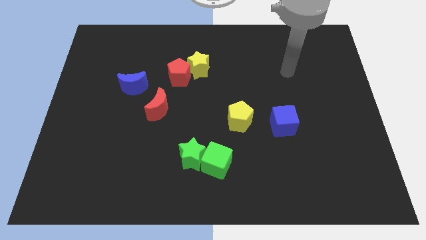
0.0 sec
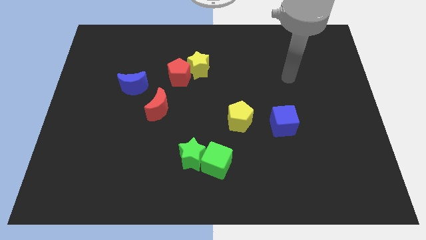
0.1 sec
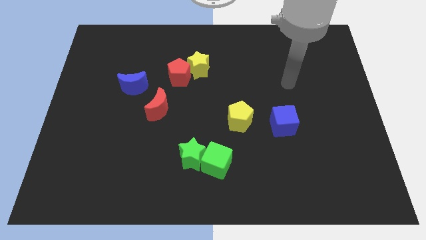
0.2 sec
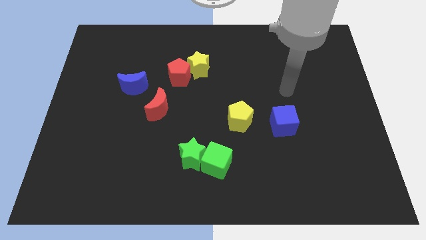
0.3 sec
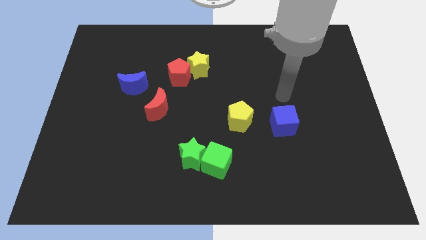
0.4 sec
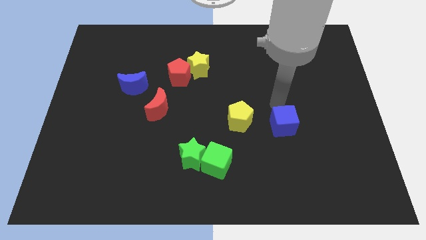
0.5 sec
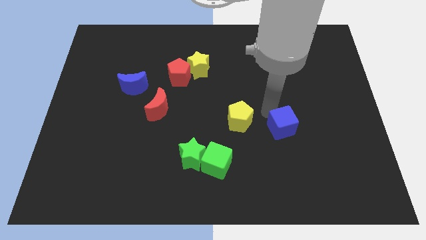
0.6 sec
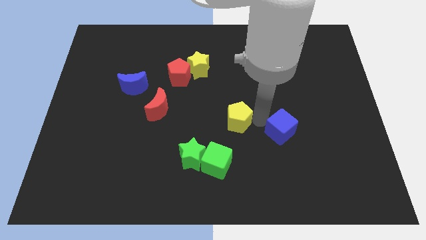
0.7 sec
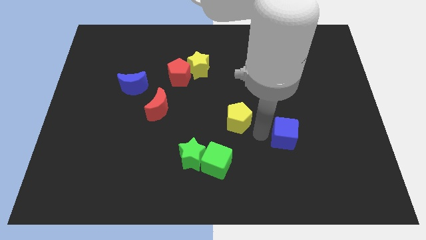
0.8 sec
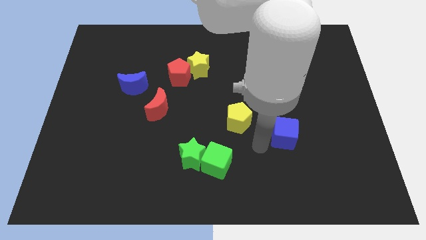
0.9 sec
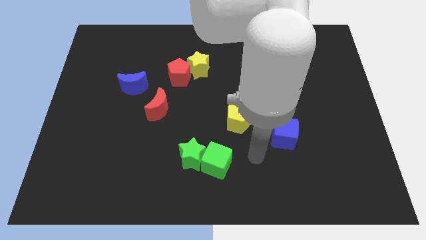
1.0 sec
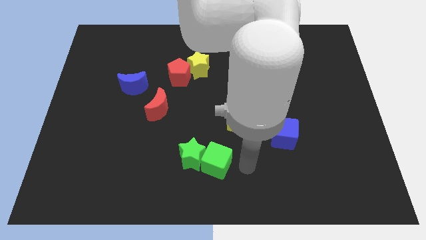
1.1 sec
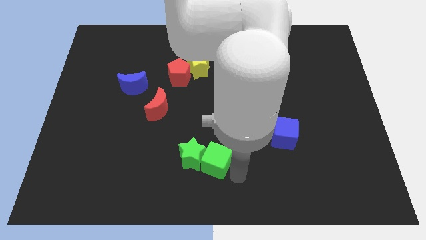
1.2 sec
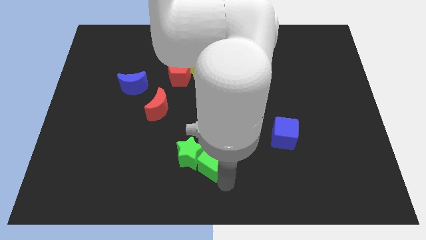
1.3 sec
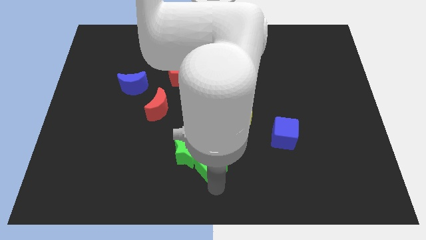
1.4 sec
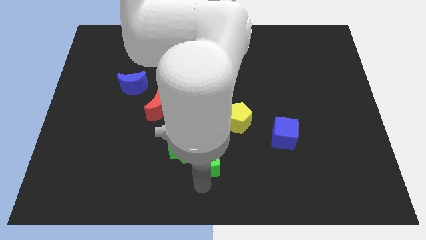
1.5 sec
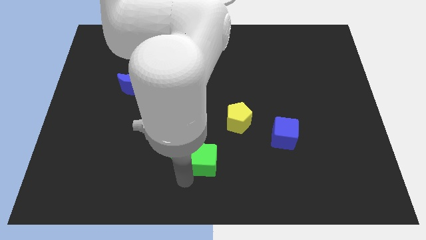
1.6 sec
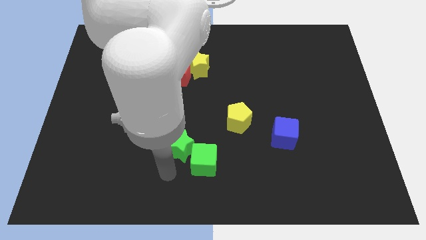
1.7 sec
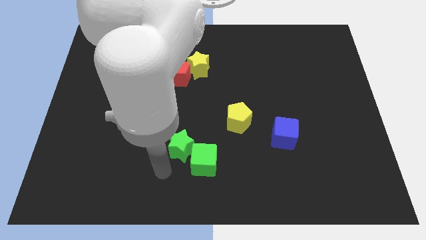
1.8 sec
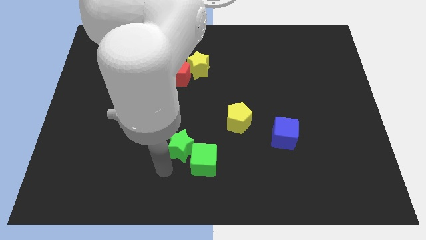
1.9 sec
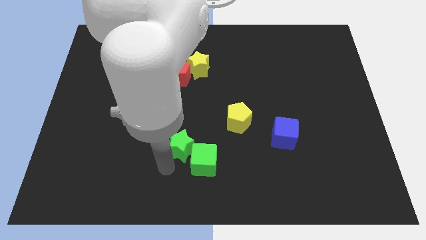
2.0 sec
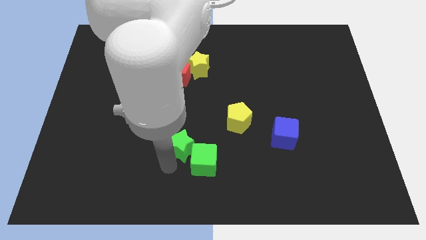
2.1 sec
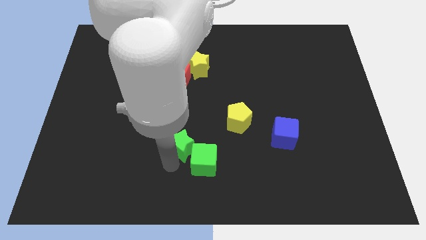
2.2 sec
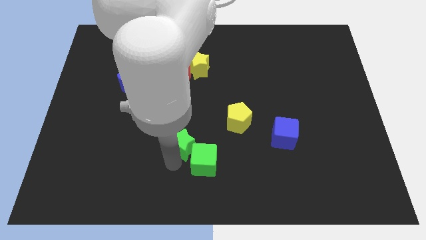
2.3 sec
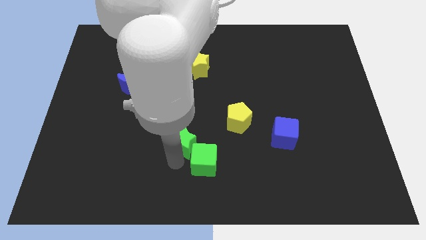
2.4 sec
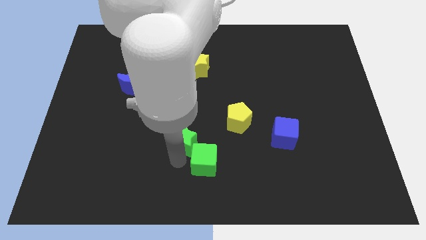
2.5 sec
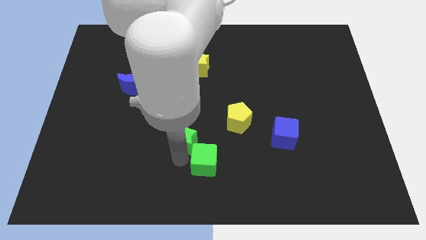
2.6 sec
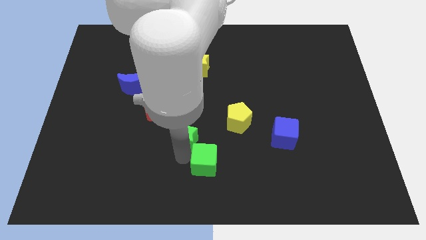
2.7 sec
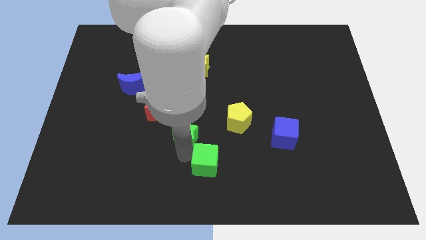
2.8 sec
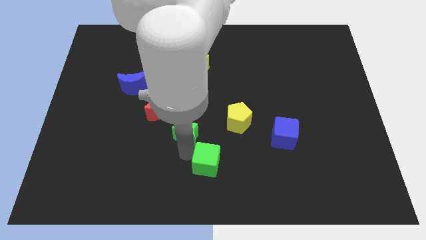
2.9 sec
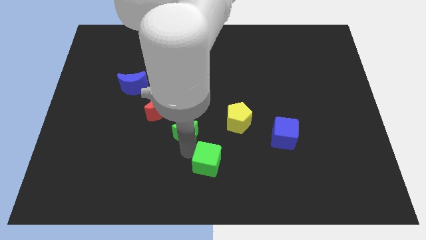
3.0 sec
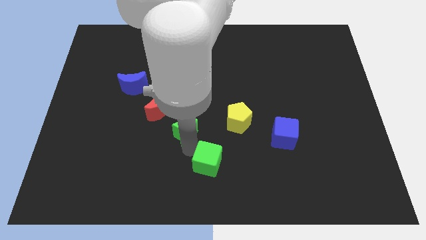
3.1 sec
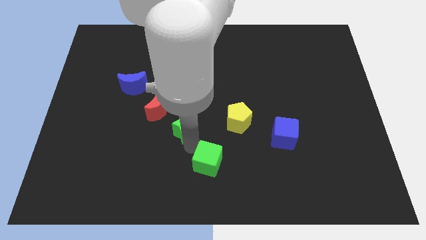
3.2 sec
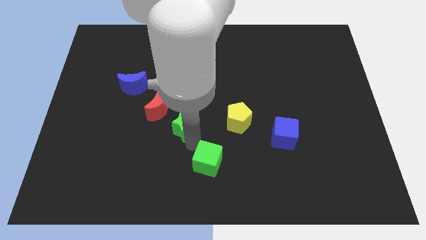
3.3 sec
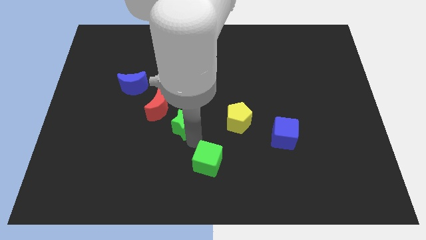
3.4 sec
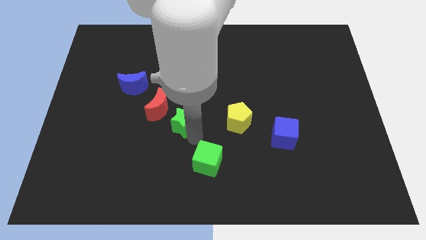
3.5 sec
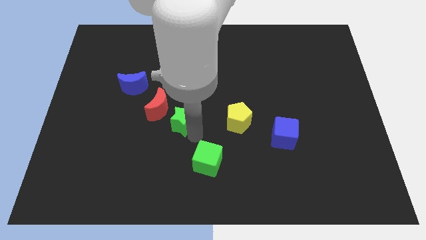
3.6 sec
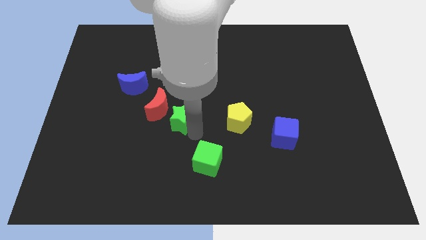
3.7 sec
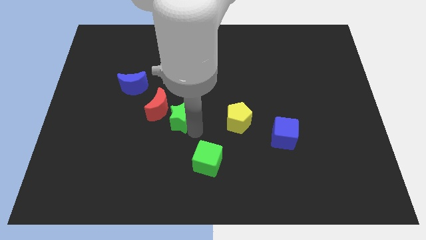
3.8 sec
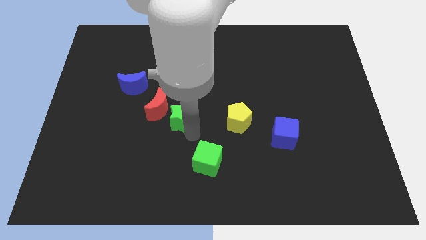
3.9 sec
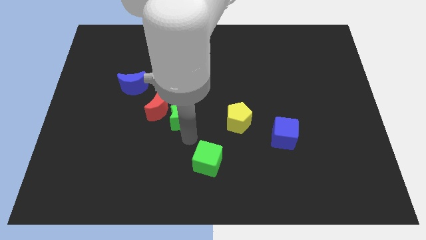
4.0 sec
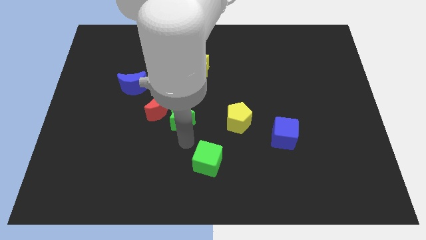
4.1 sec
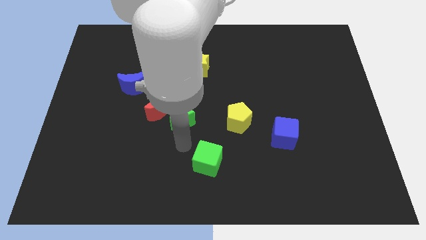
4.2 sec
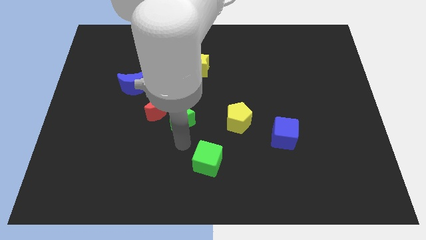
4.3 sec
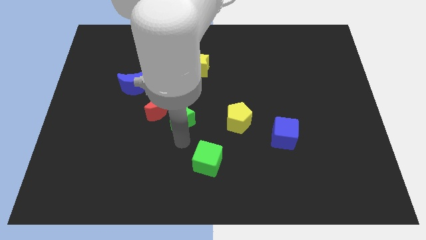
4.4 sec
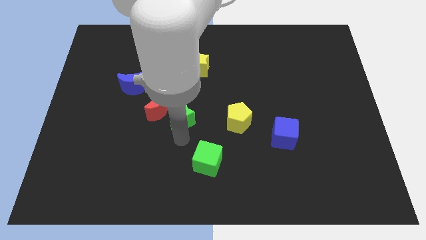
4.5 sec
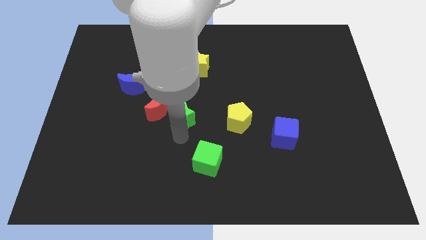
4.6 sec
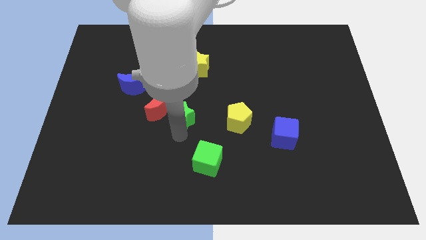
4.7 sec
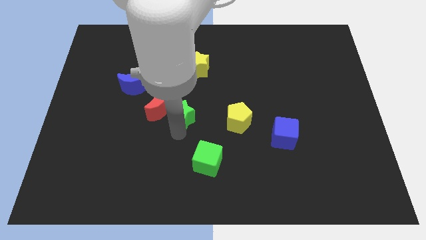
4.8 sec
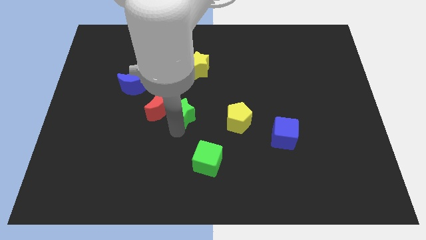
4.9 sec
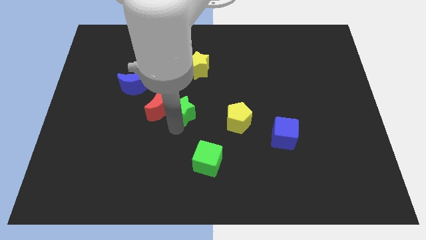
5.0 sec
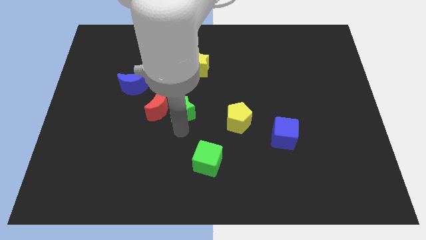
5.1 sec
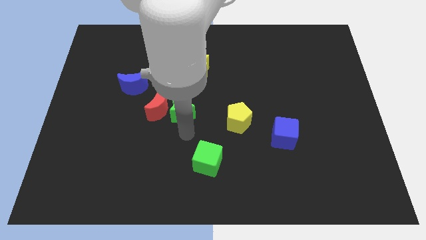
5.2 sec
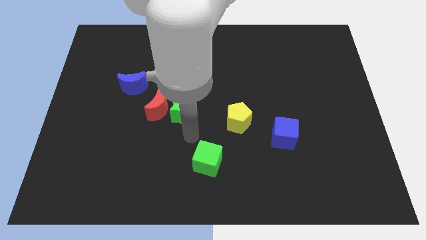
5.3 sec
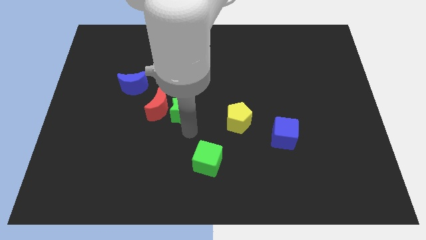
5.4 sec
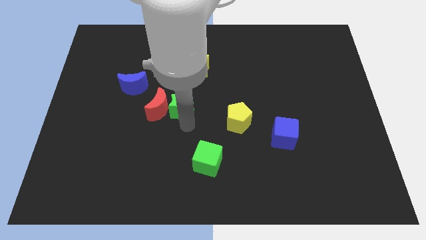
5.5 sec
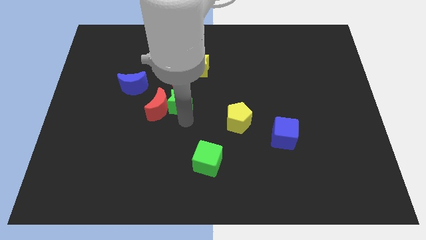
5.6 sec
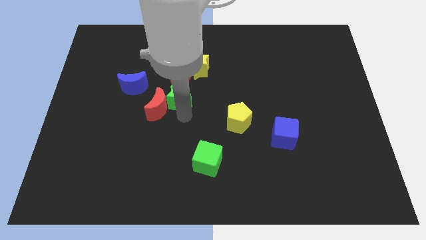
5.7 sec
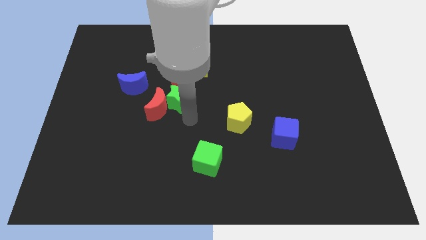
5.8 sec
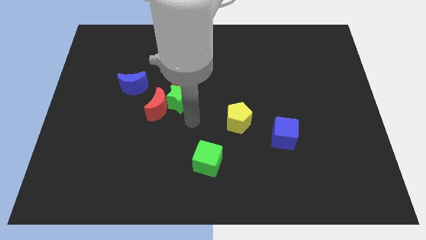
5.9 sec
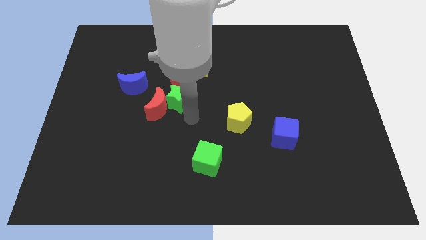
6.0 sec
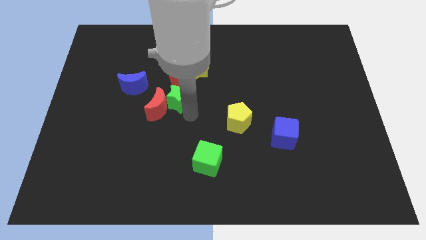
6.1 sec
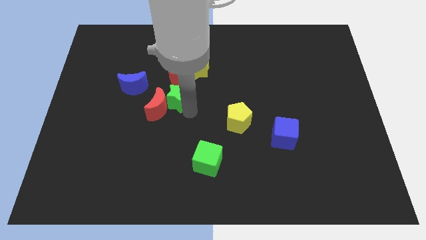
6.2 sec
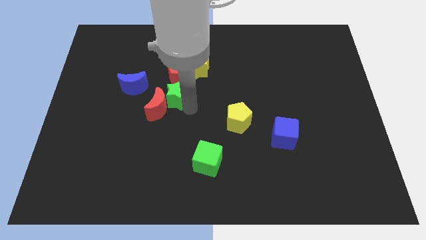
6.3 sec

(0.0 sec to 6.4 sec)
move the green star above the red moon

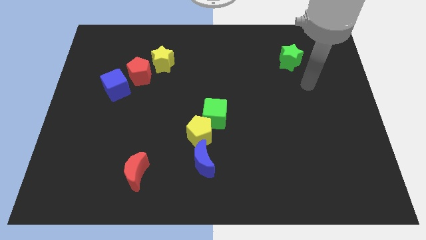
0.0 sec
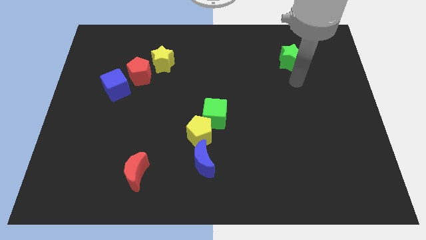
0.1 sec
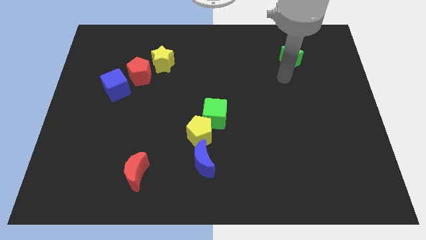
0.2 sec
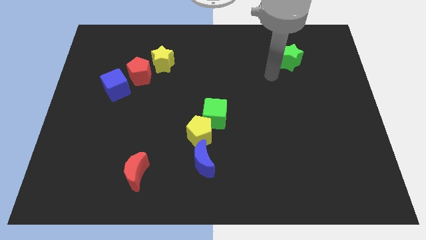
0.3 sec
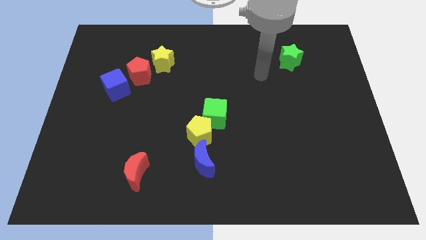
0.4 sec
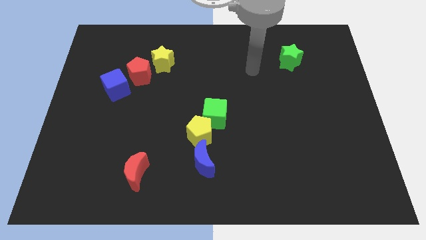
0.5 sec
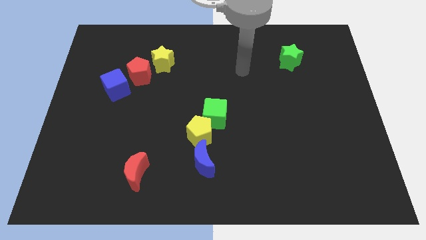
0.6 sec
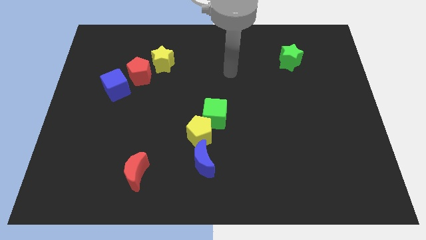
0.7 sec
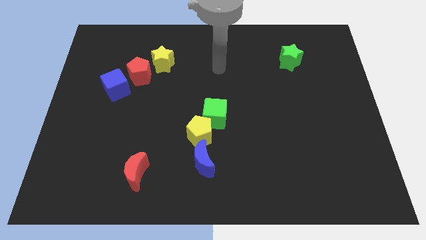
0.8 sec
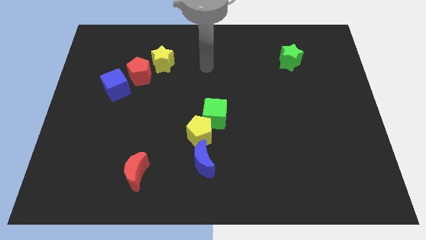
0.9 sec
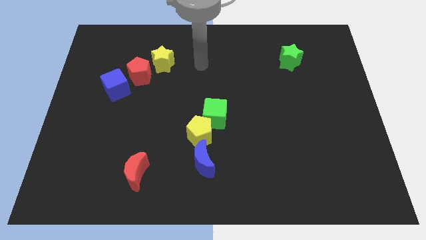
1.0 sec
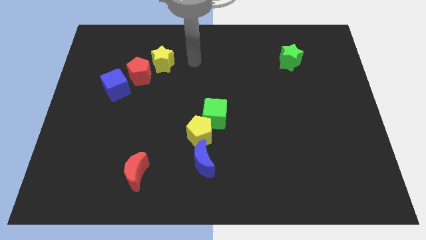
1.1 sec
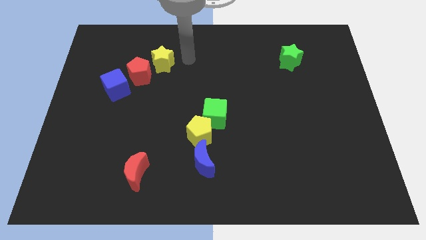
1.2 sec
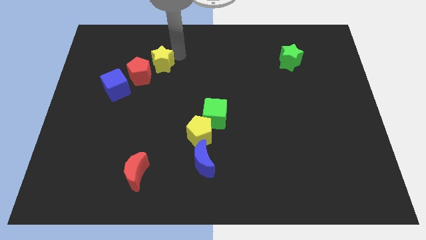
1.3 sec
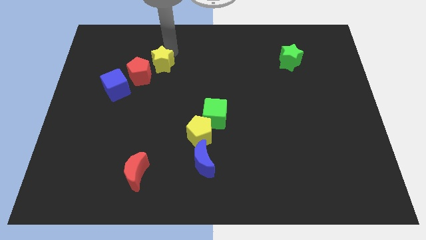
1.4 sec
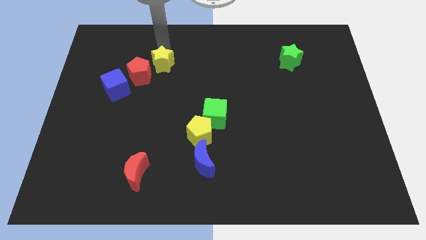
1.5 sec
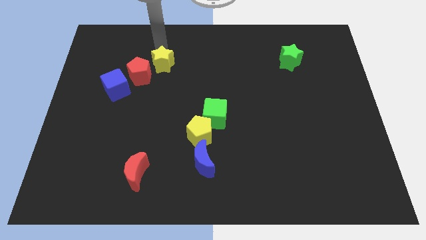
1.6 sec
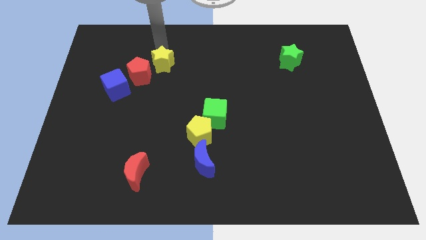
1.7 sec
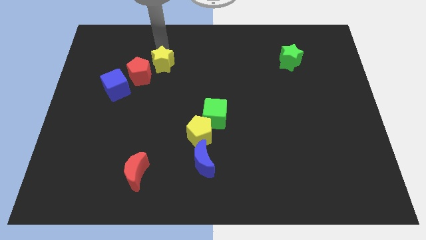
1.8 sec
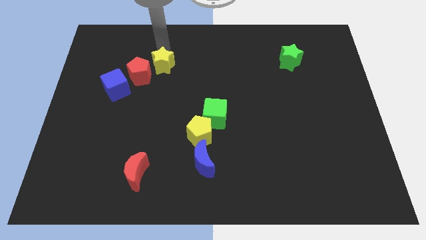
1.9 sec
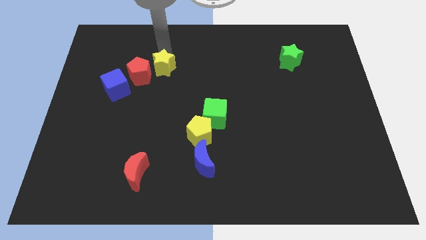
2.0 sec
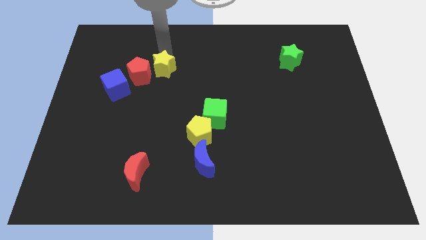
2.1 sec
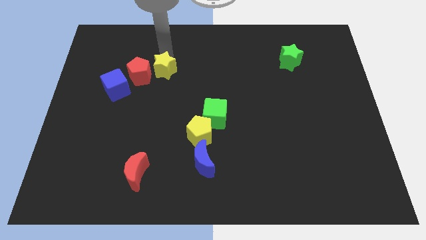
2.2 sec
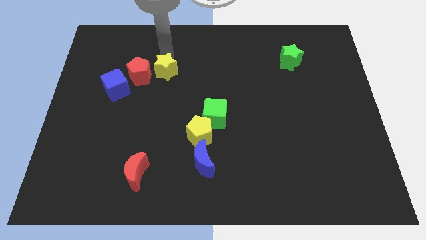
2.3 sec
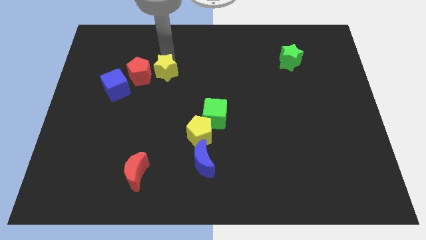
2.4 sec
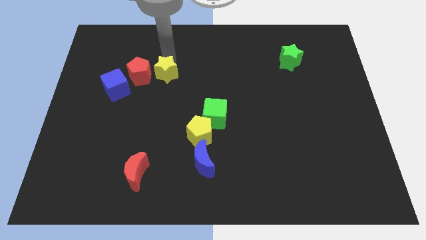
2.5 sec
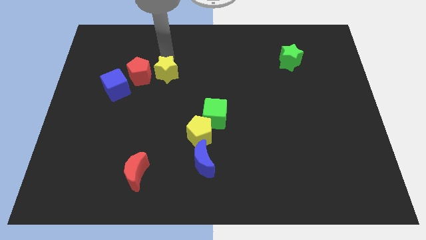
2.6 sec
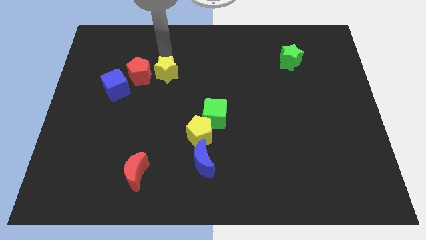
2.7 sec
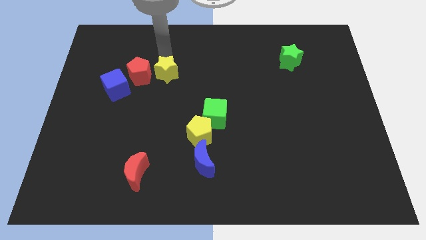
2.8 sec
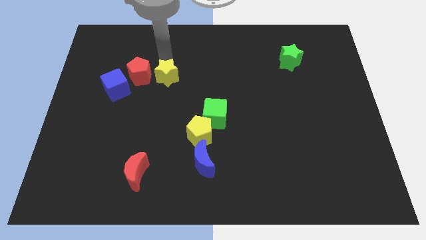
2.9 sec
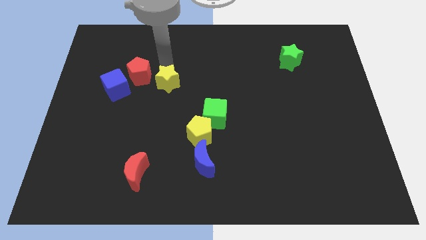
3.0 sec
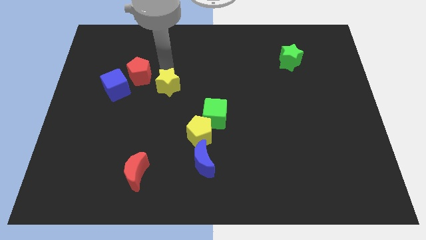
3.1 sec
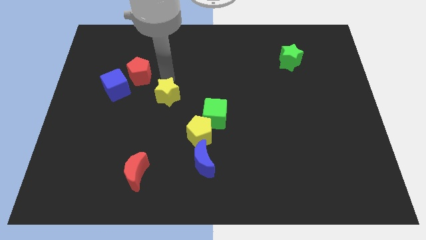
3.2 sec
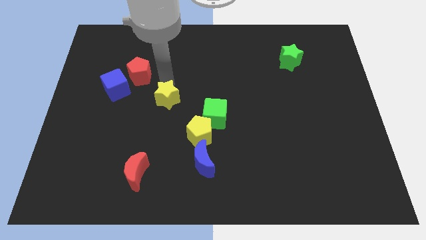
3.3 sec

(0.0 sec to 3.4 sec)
put the yellow star diagonally up and to the left of the yellow pentagon
